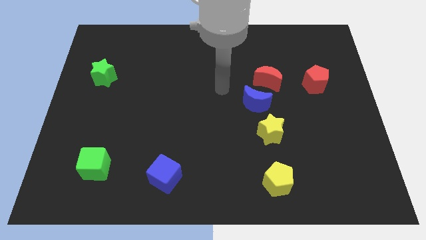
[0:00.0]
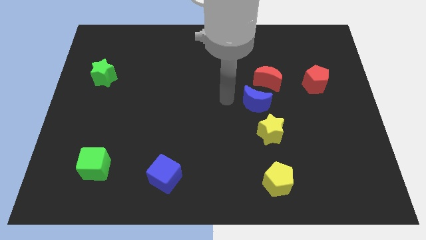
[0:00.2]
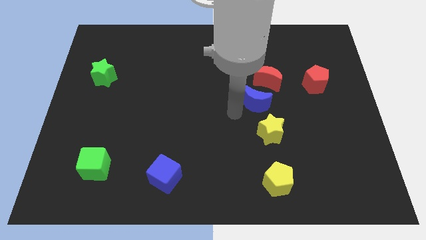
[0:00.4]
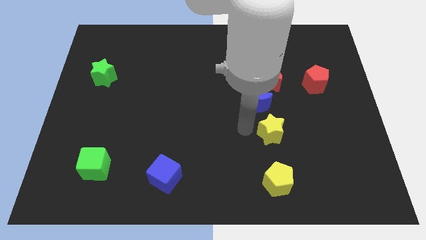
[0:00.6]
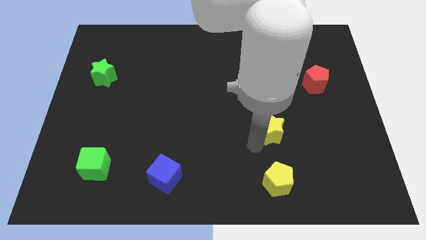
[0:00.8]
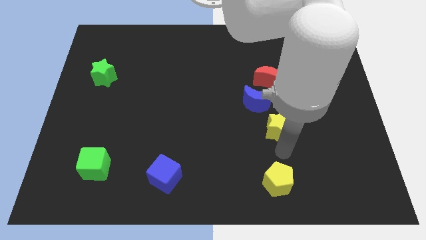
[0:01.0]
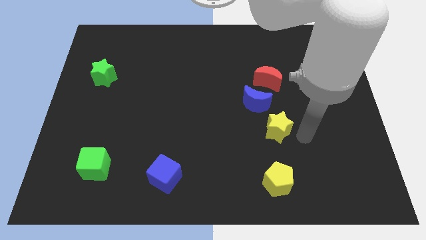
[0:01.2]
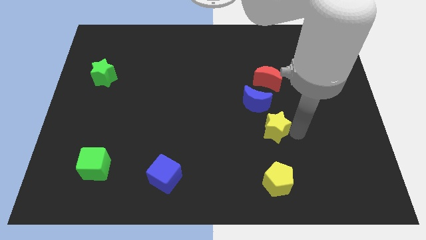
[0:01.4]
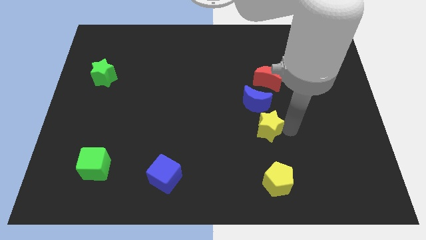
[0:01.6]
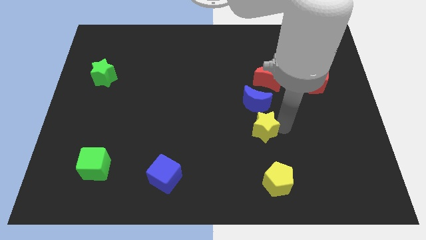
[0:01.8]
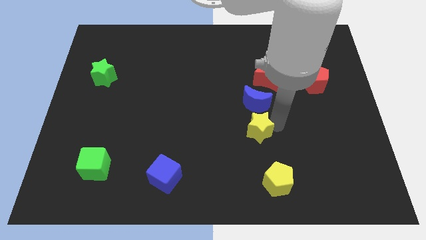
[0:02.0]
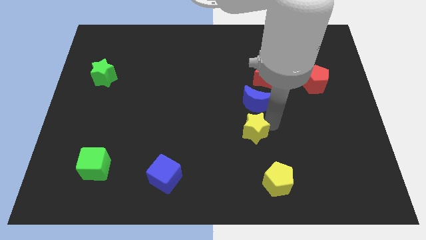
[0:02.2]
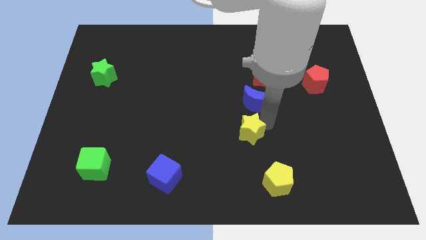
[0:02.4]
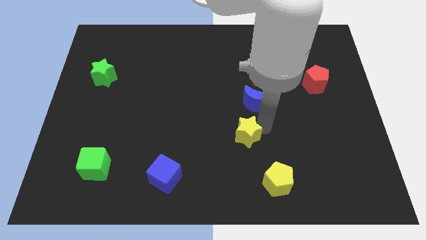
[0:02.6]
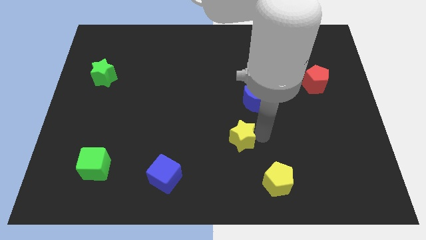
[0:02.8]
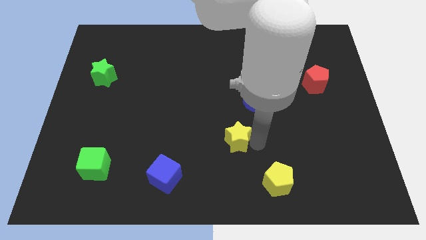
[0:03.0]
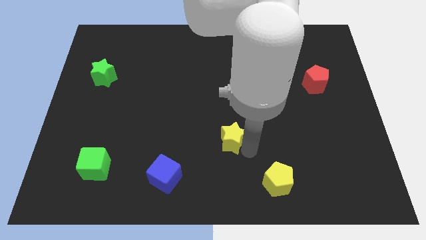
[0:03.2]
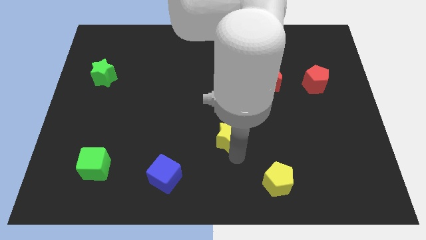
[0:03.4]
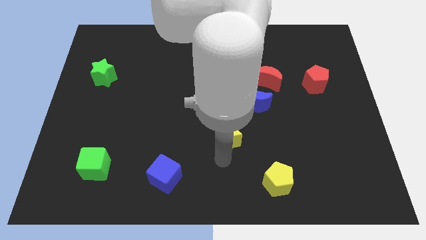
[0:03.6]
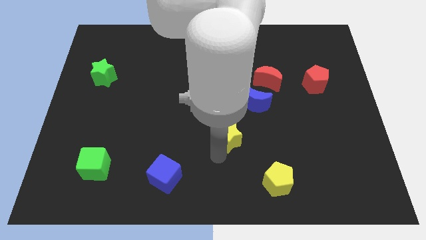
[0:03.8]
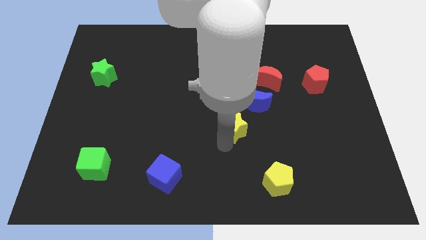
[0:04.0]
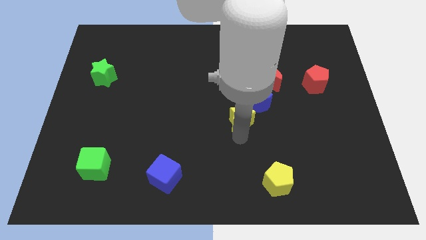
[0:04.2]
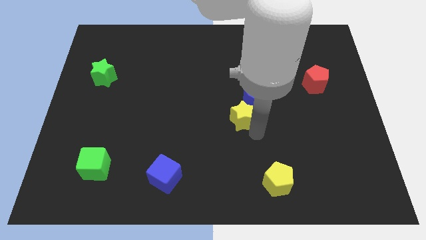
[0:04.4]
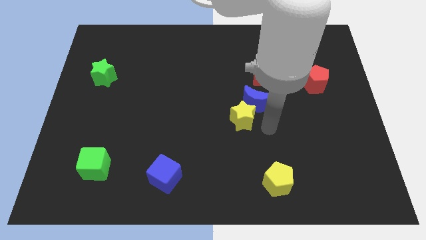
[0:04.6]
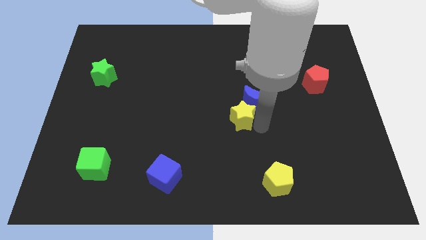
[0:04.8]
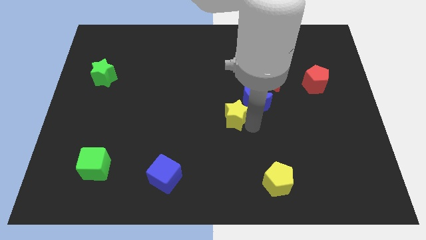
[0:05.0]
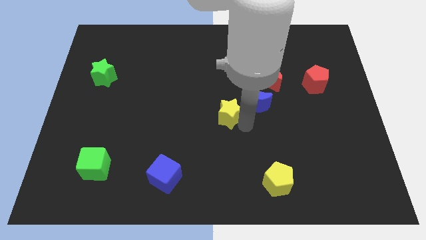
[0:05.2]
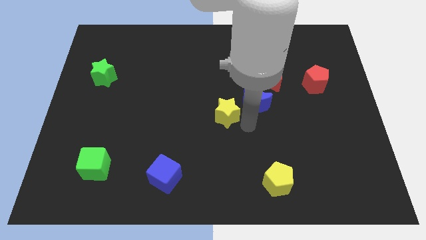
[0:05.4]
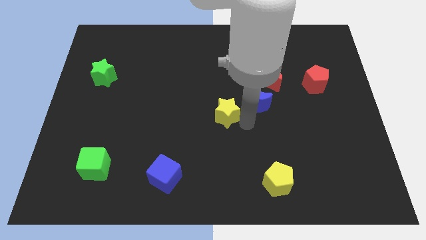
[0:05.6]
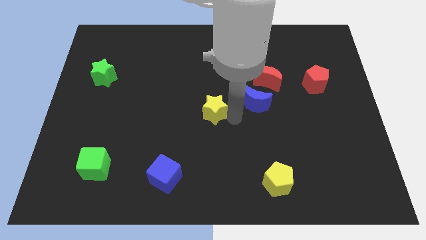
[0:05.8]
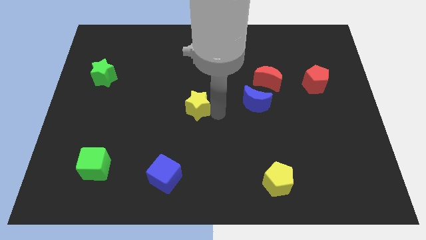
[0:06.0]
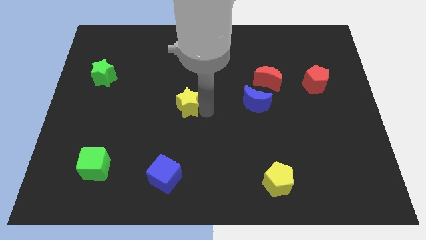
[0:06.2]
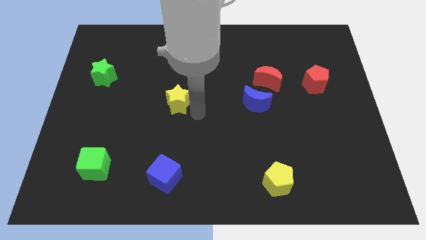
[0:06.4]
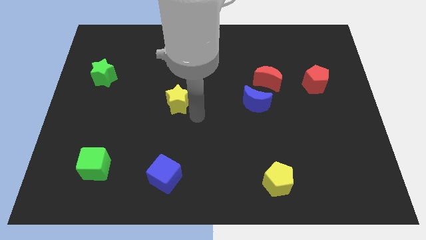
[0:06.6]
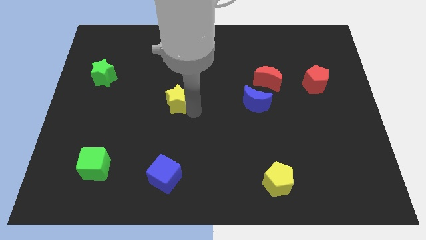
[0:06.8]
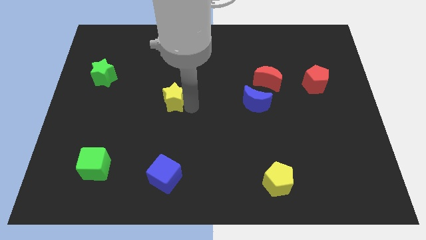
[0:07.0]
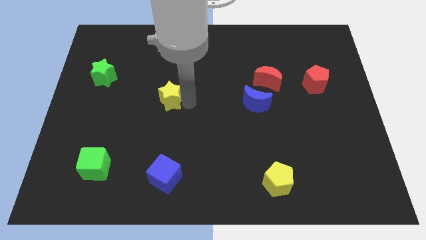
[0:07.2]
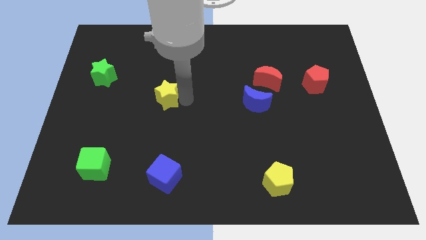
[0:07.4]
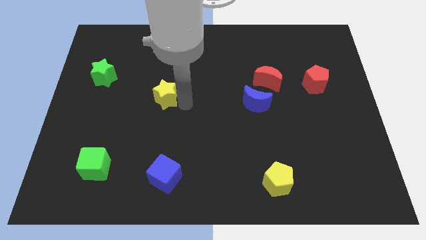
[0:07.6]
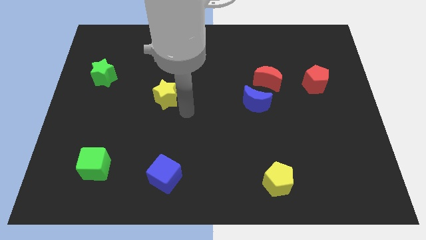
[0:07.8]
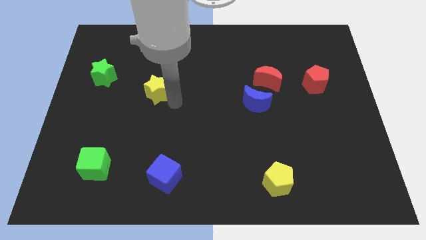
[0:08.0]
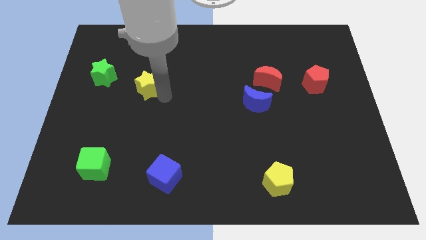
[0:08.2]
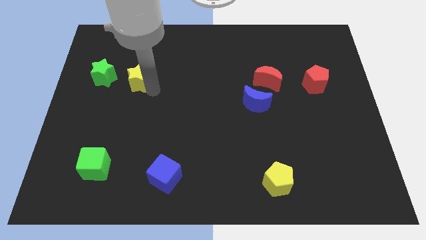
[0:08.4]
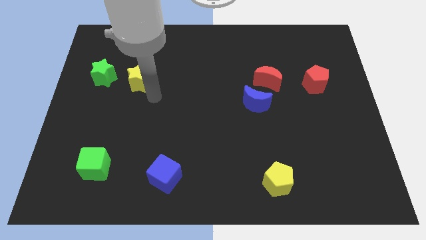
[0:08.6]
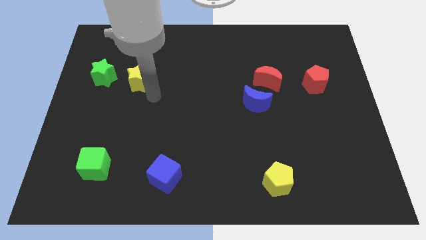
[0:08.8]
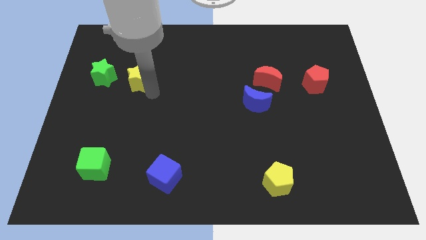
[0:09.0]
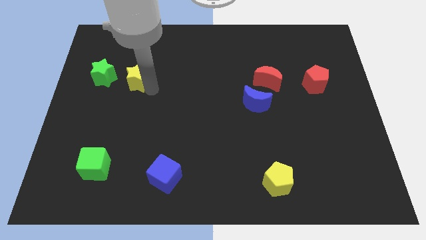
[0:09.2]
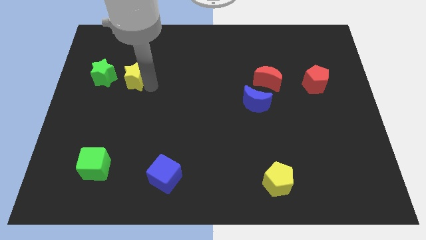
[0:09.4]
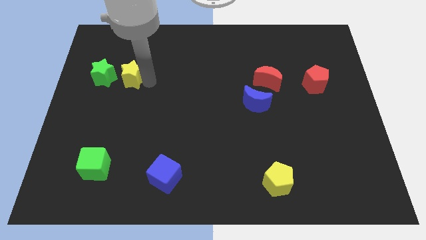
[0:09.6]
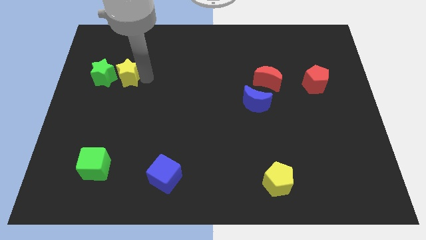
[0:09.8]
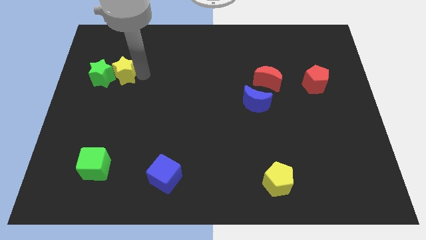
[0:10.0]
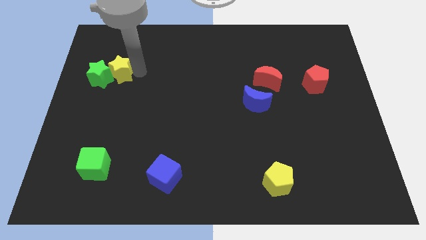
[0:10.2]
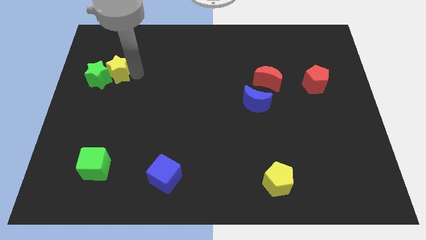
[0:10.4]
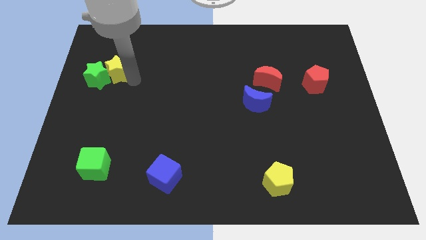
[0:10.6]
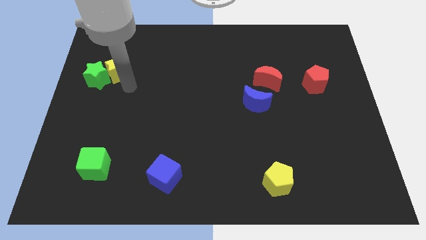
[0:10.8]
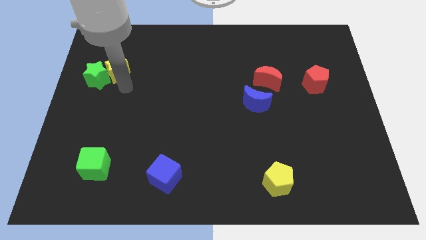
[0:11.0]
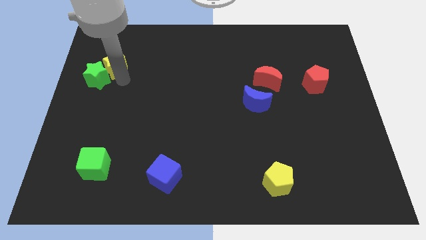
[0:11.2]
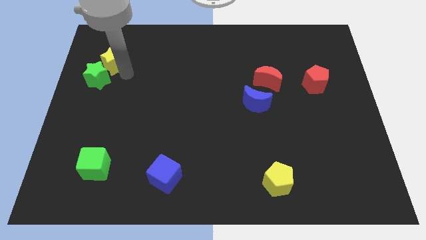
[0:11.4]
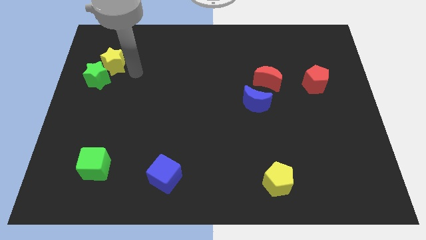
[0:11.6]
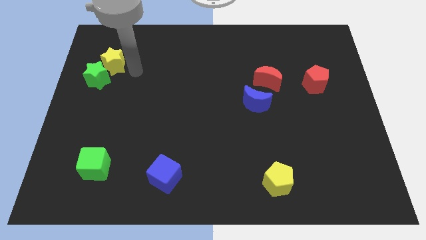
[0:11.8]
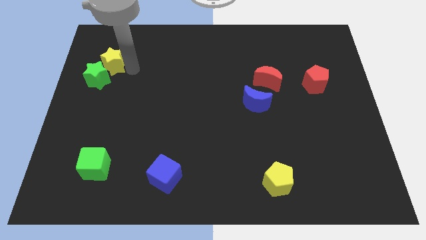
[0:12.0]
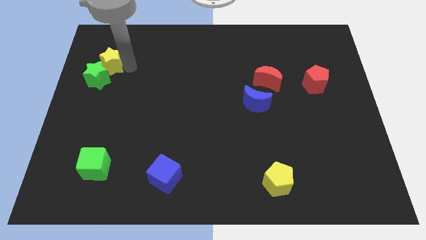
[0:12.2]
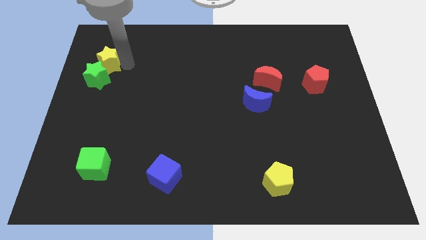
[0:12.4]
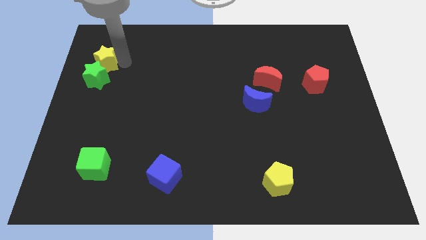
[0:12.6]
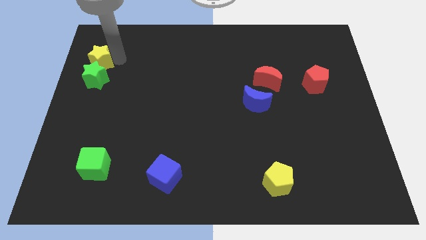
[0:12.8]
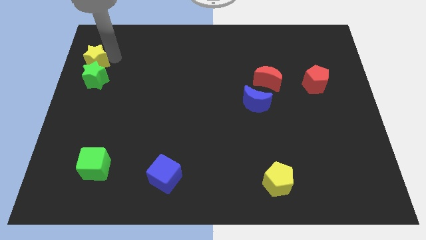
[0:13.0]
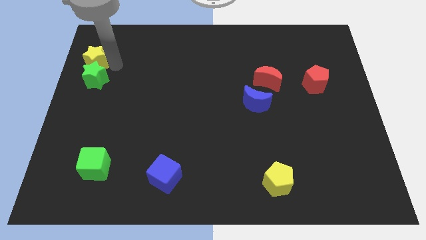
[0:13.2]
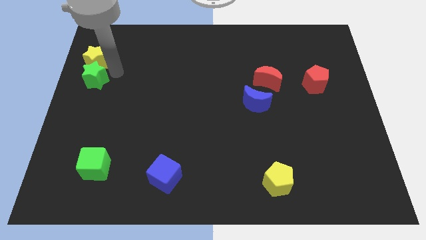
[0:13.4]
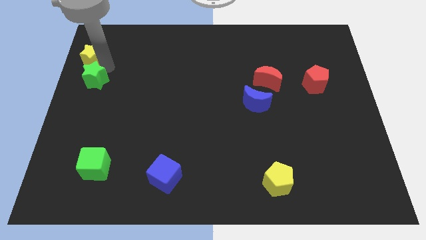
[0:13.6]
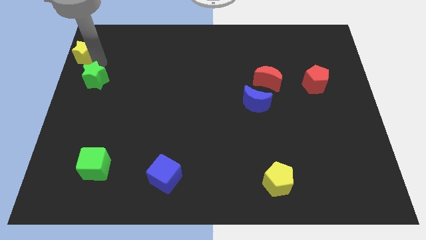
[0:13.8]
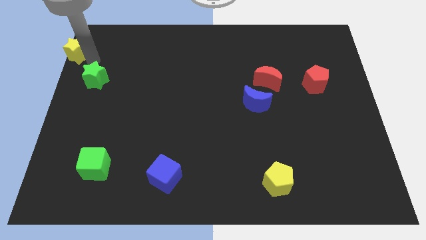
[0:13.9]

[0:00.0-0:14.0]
move the yellow star to the upper left corner
